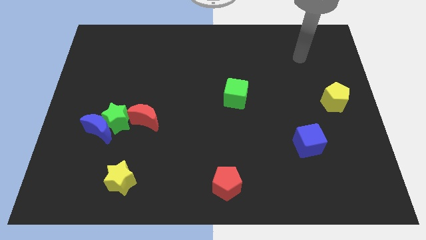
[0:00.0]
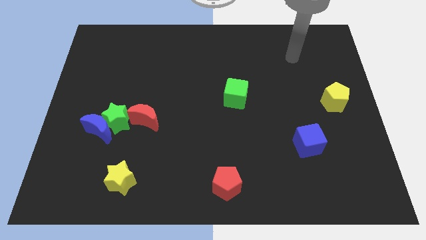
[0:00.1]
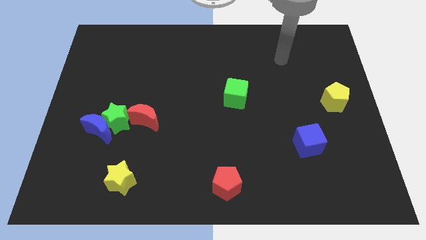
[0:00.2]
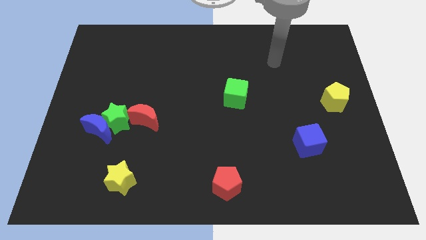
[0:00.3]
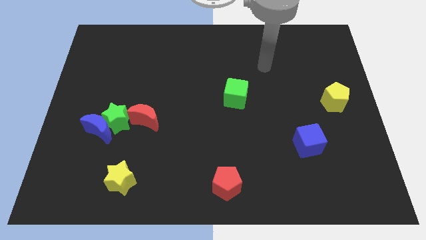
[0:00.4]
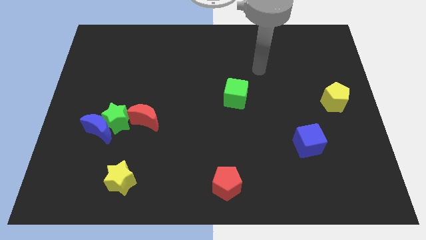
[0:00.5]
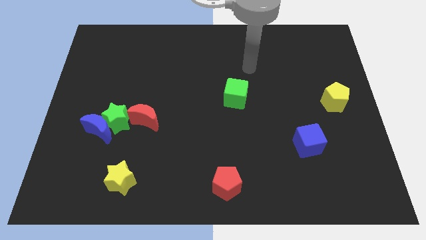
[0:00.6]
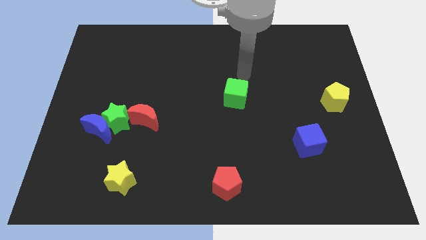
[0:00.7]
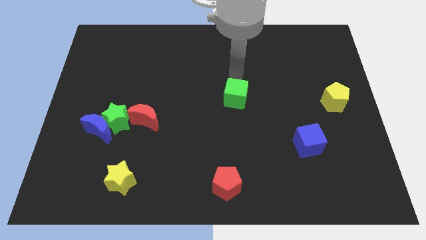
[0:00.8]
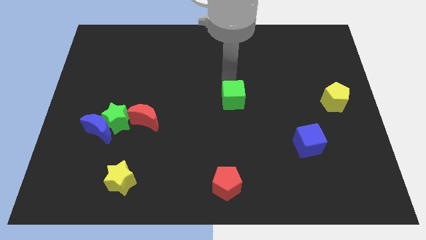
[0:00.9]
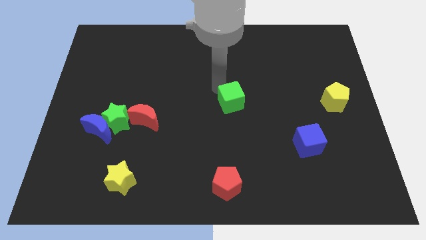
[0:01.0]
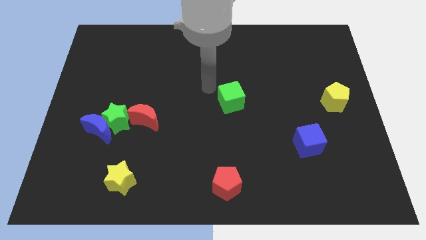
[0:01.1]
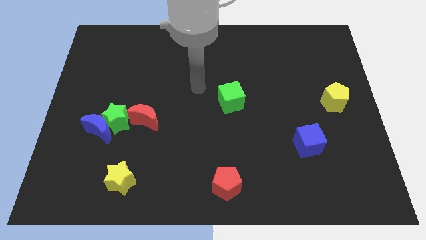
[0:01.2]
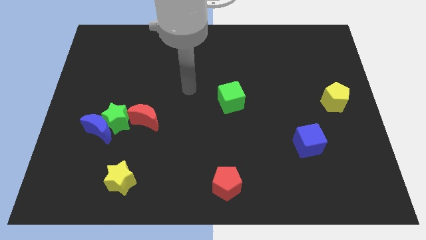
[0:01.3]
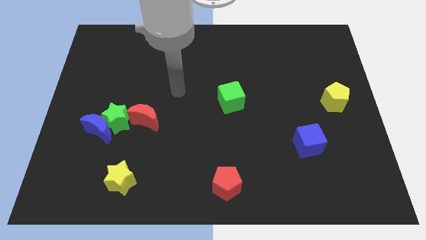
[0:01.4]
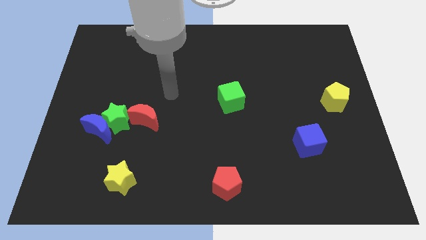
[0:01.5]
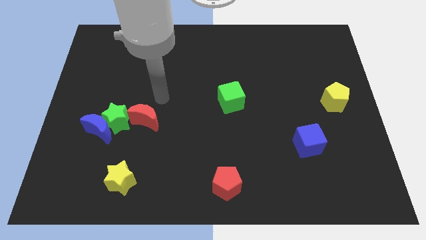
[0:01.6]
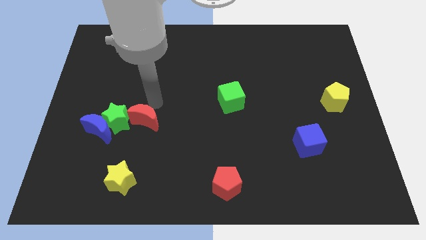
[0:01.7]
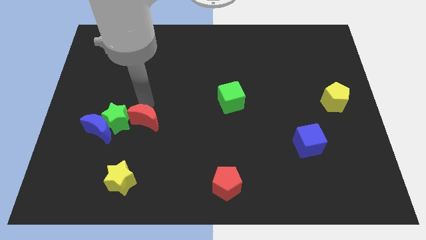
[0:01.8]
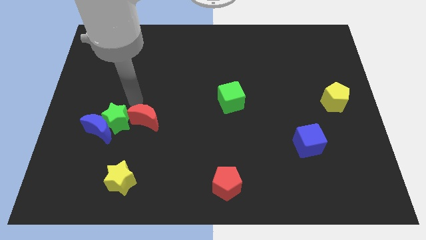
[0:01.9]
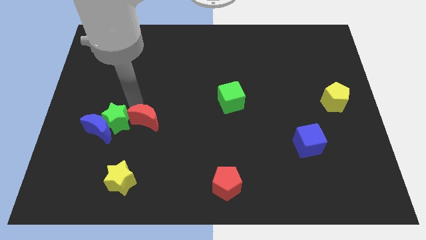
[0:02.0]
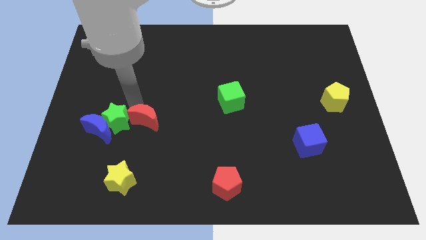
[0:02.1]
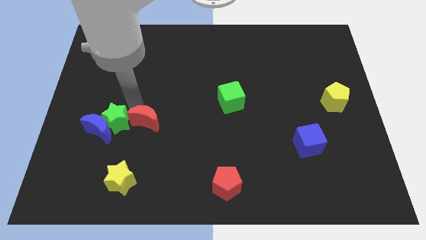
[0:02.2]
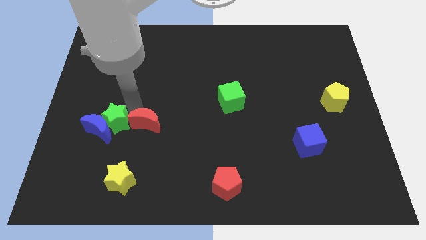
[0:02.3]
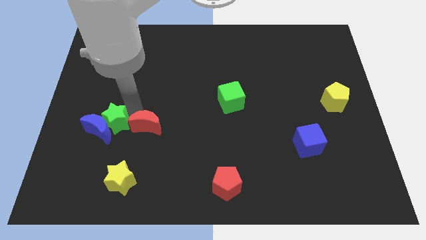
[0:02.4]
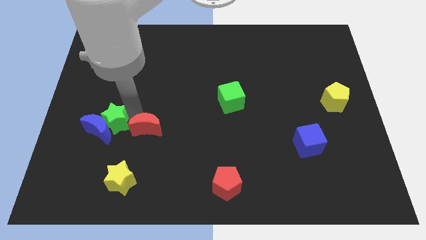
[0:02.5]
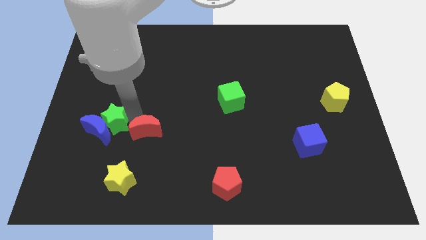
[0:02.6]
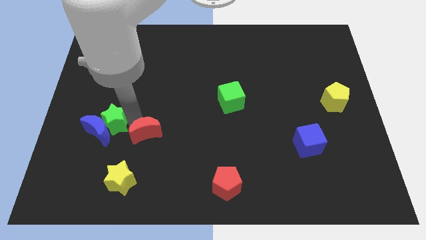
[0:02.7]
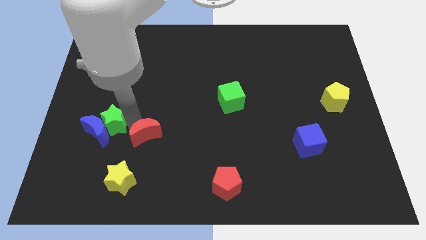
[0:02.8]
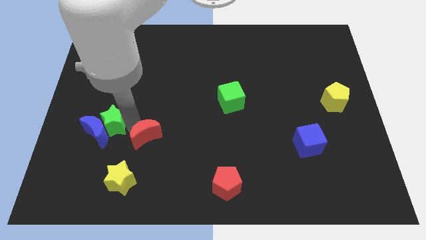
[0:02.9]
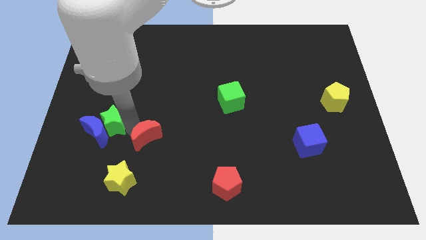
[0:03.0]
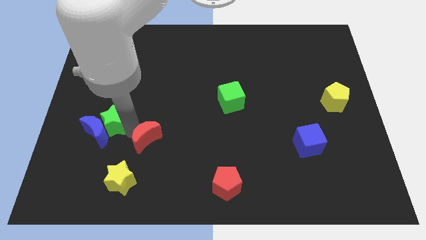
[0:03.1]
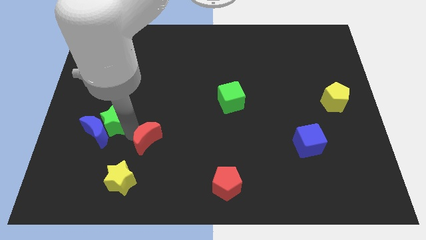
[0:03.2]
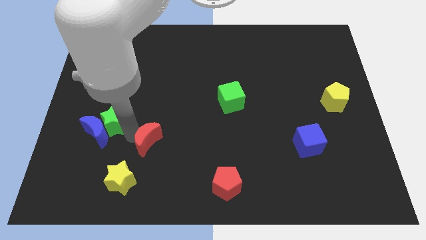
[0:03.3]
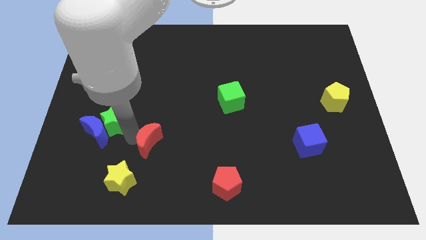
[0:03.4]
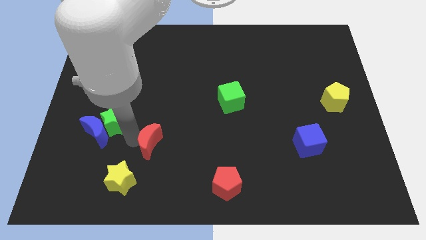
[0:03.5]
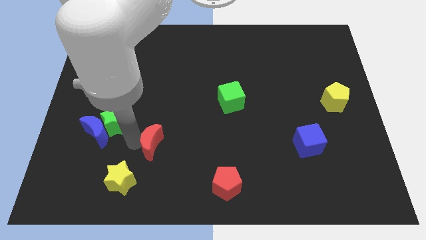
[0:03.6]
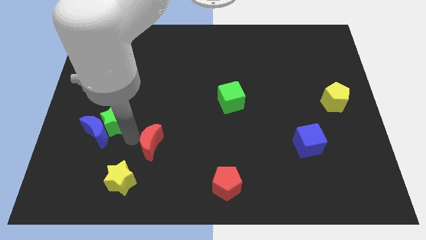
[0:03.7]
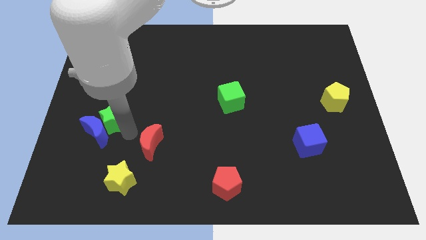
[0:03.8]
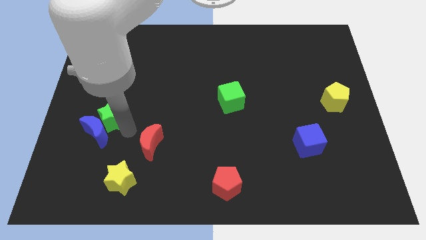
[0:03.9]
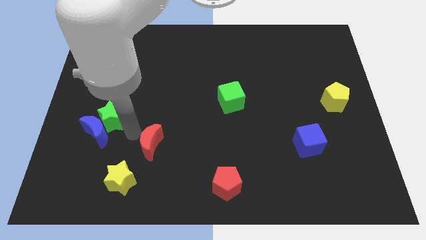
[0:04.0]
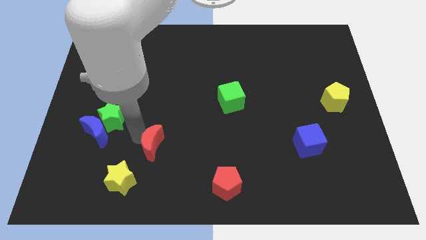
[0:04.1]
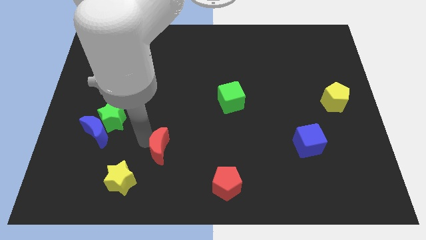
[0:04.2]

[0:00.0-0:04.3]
push the red moon a little downwards and then to the right

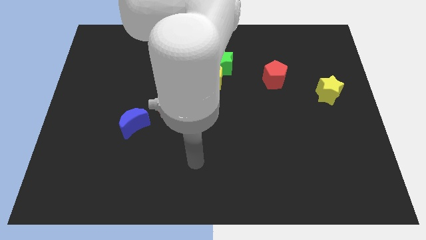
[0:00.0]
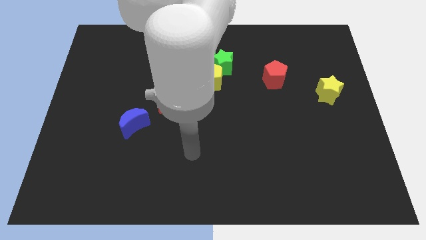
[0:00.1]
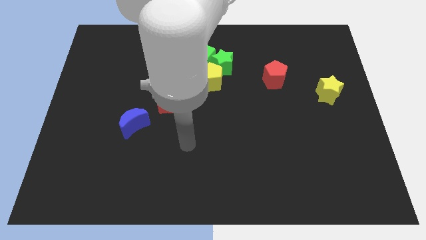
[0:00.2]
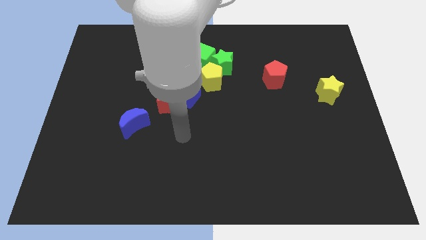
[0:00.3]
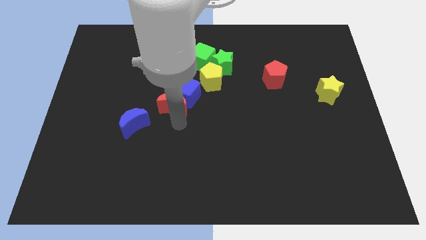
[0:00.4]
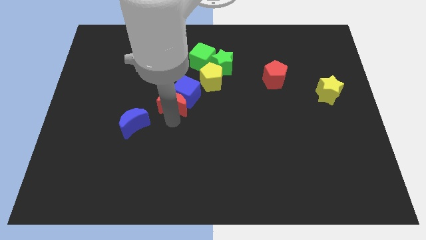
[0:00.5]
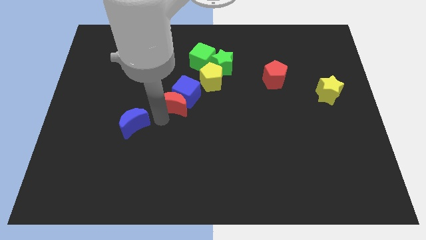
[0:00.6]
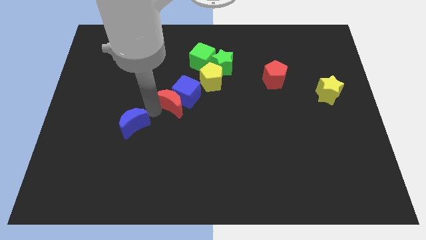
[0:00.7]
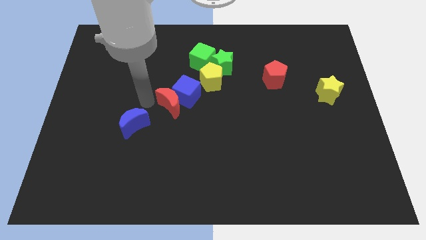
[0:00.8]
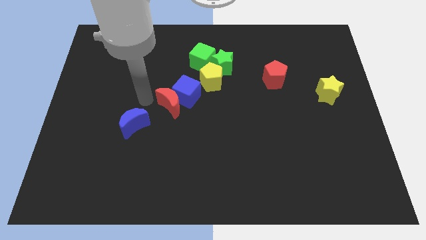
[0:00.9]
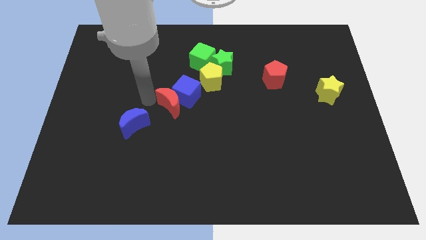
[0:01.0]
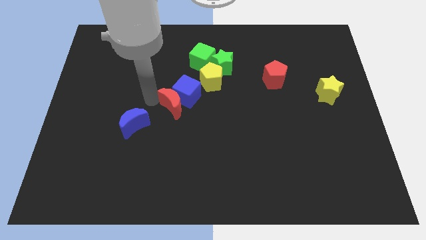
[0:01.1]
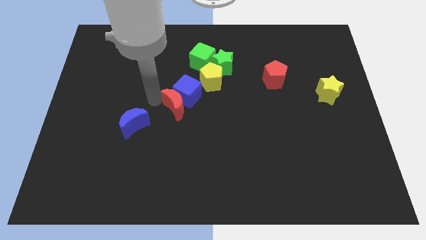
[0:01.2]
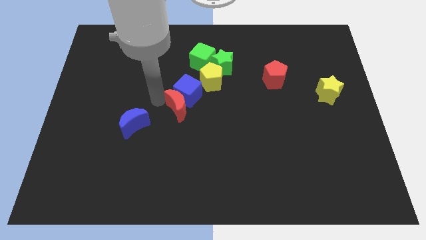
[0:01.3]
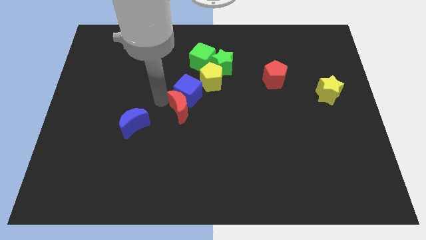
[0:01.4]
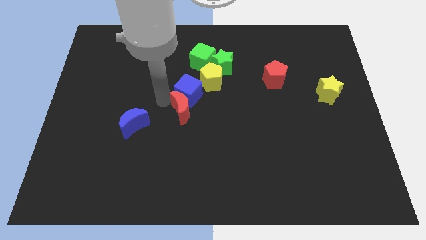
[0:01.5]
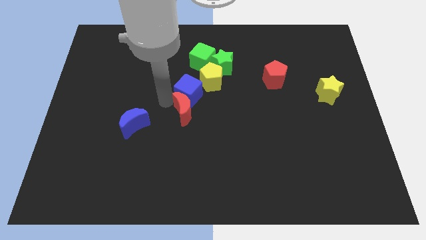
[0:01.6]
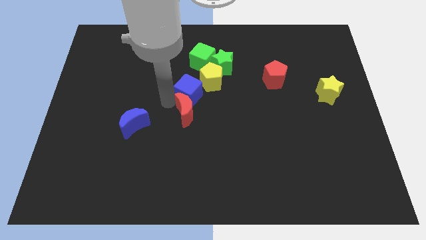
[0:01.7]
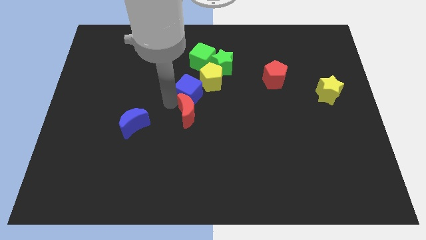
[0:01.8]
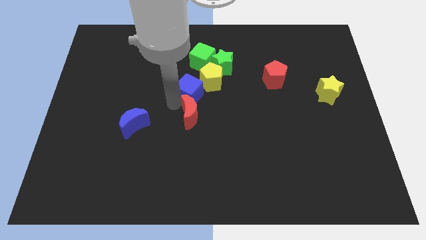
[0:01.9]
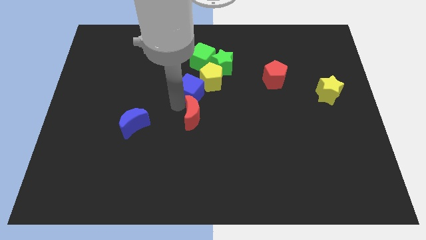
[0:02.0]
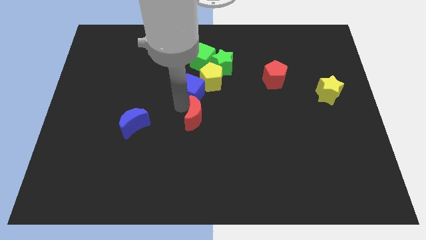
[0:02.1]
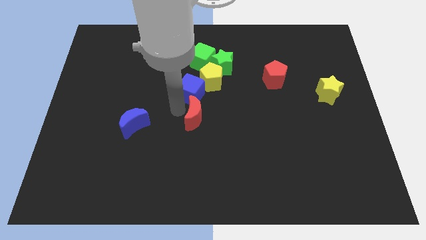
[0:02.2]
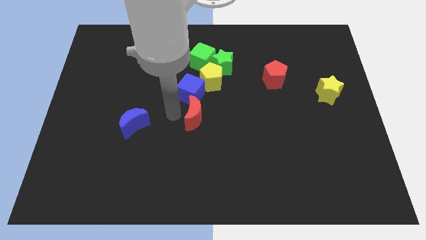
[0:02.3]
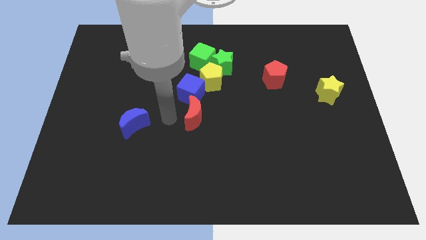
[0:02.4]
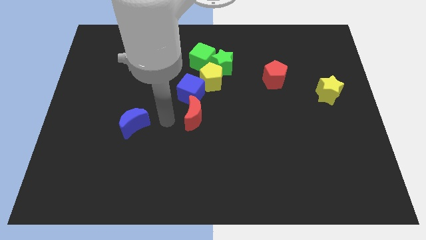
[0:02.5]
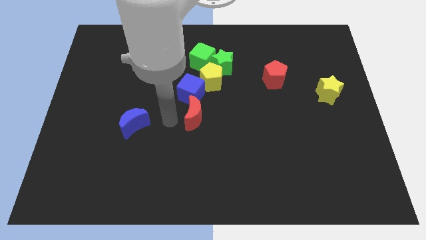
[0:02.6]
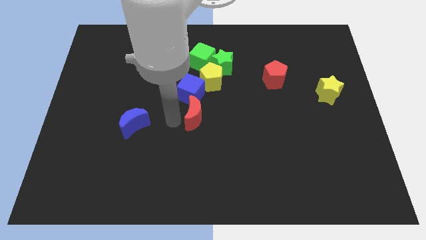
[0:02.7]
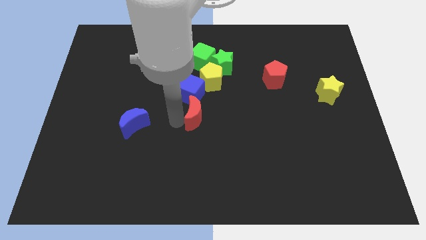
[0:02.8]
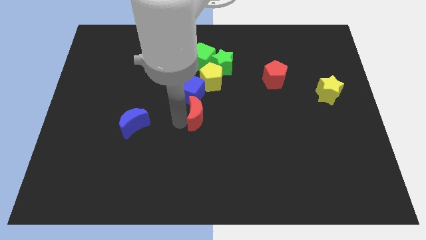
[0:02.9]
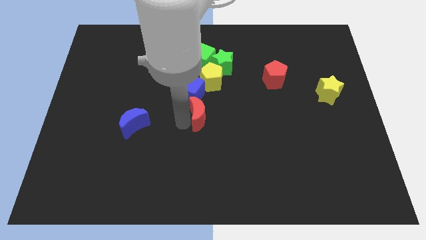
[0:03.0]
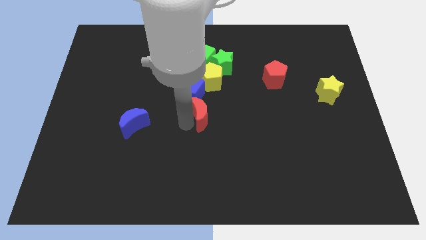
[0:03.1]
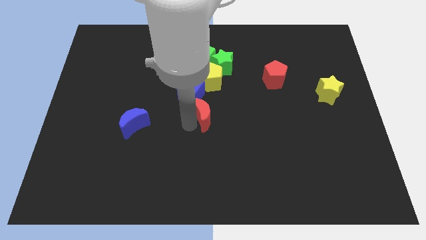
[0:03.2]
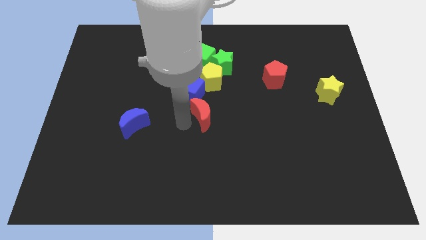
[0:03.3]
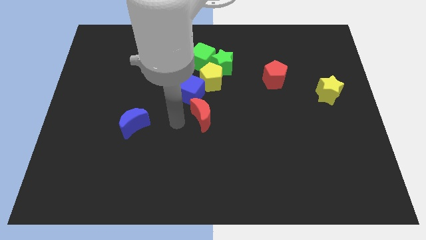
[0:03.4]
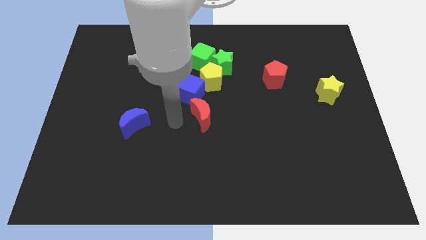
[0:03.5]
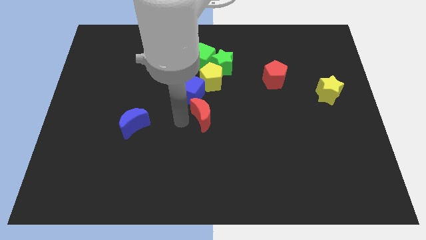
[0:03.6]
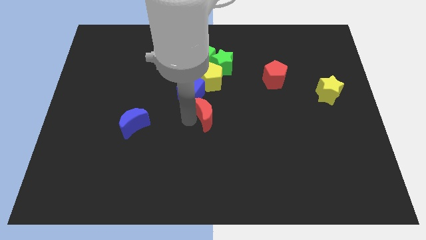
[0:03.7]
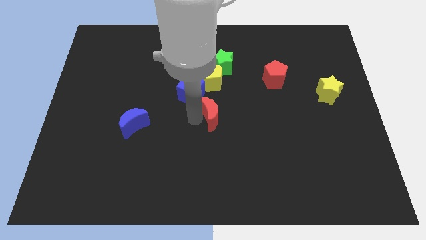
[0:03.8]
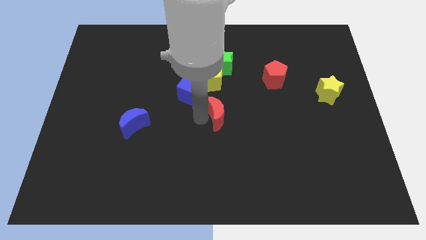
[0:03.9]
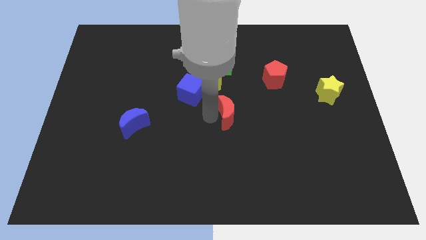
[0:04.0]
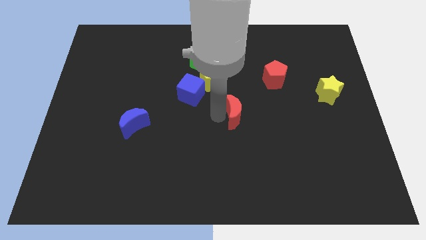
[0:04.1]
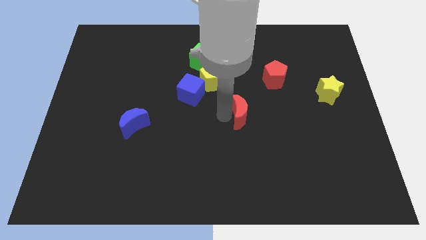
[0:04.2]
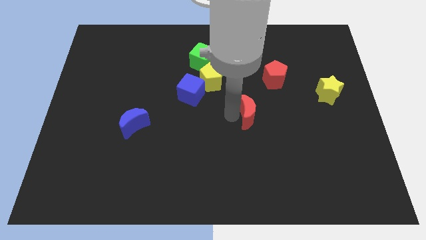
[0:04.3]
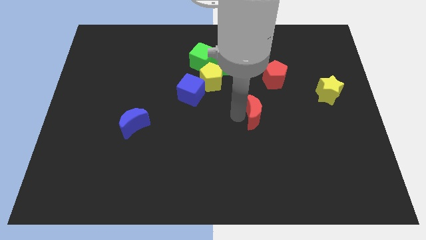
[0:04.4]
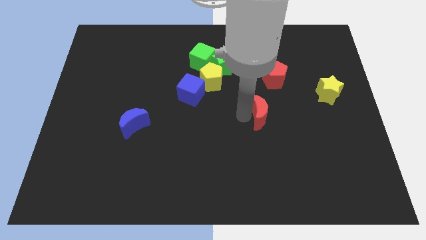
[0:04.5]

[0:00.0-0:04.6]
push the red moon to the right
